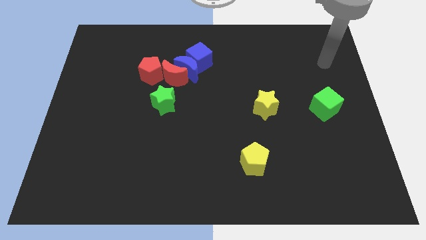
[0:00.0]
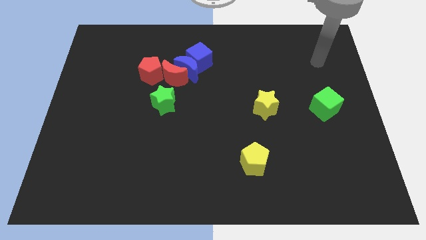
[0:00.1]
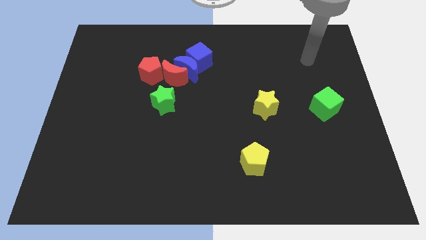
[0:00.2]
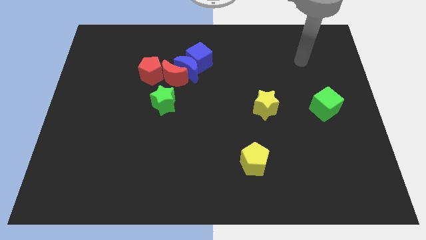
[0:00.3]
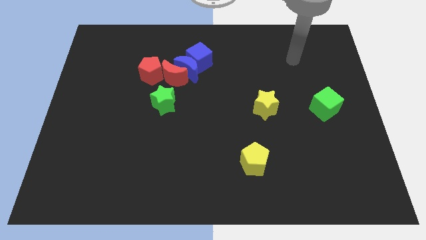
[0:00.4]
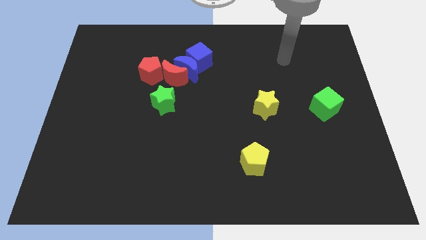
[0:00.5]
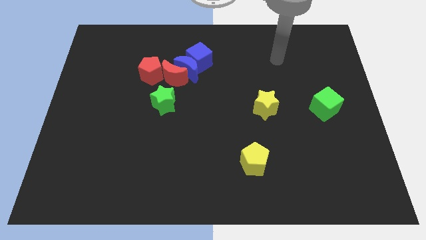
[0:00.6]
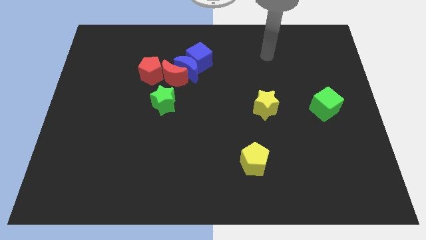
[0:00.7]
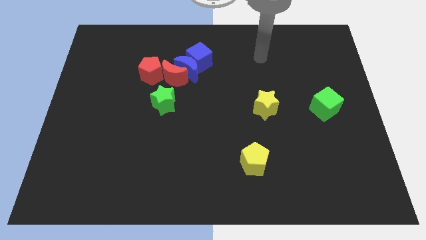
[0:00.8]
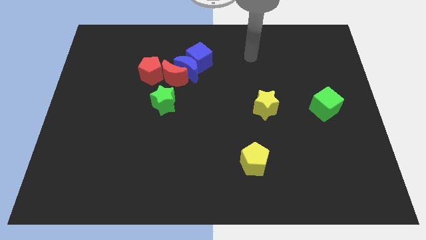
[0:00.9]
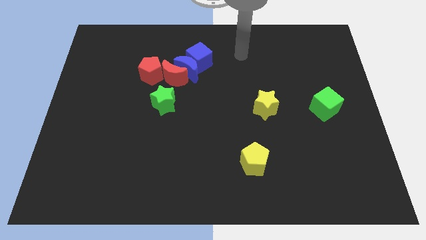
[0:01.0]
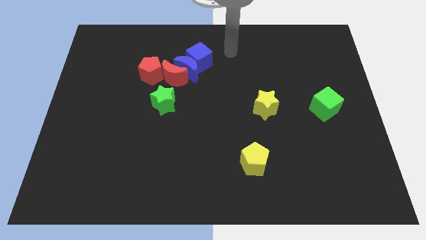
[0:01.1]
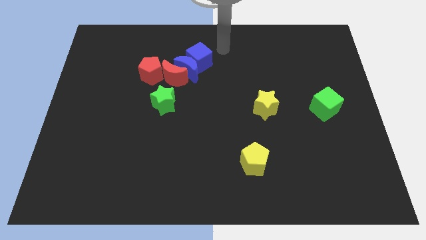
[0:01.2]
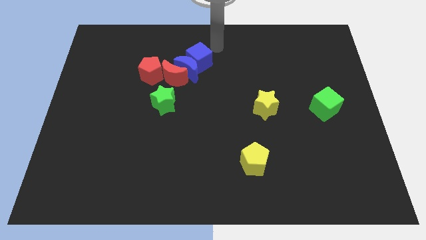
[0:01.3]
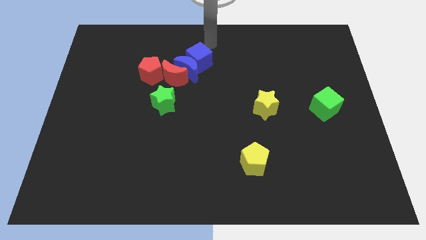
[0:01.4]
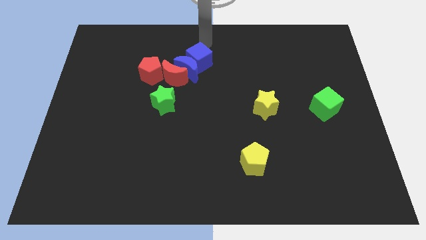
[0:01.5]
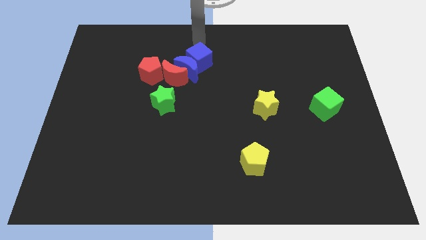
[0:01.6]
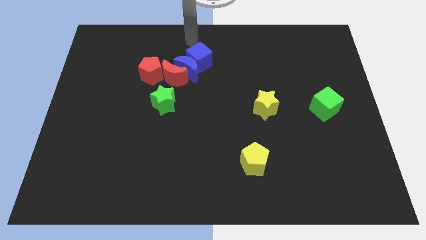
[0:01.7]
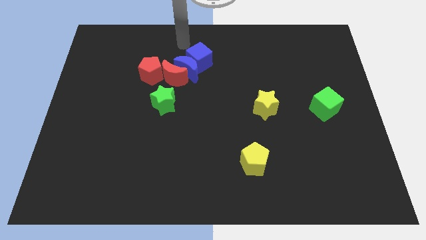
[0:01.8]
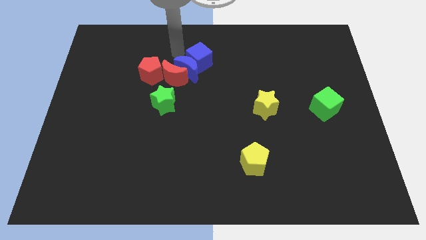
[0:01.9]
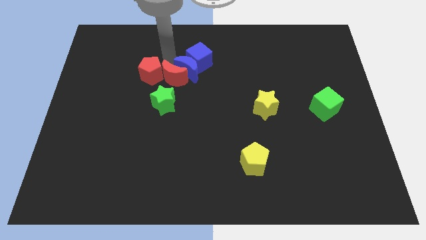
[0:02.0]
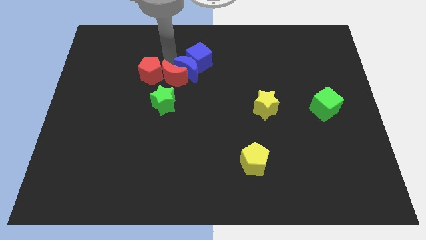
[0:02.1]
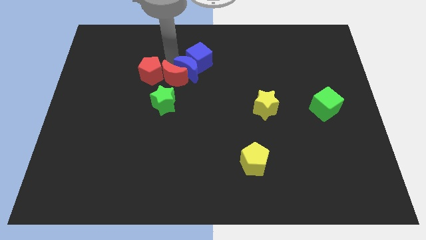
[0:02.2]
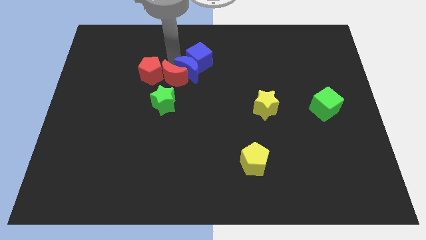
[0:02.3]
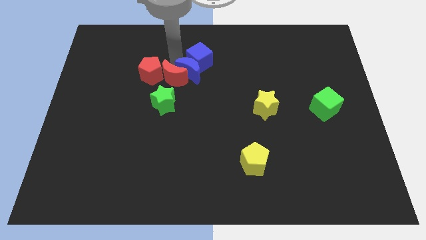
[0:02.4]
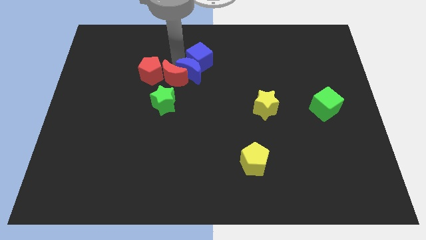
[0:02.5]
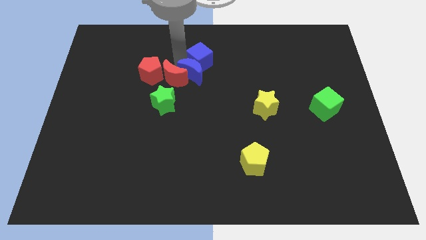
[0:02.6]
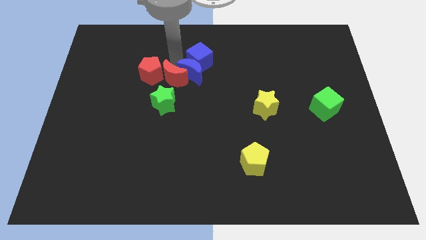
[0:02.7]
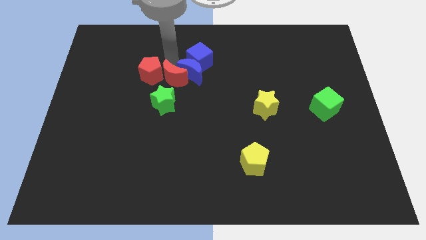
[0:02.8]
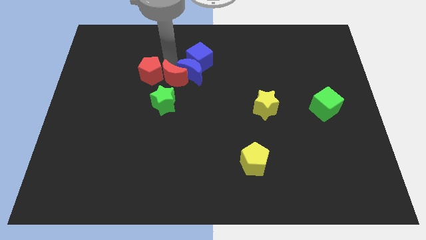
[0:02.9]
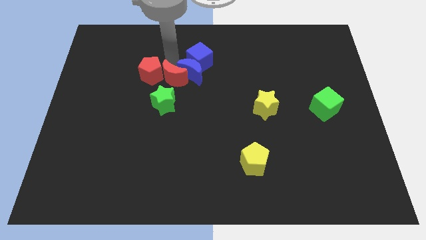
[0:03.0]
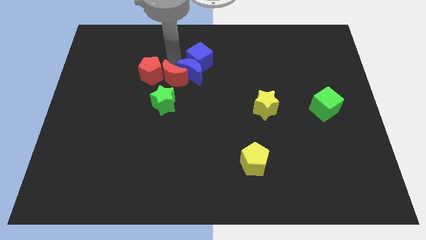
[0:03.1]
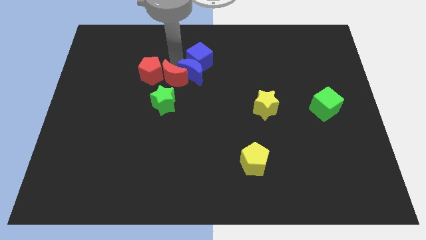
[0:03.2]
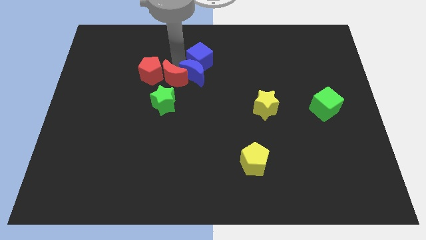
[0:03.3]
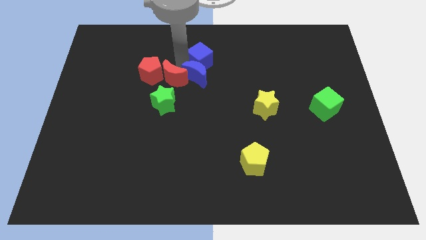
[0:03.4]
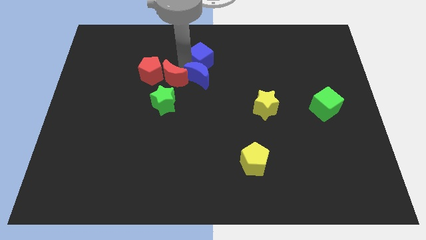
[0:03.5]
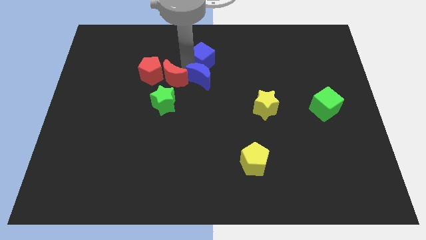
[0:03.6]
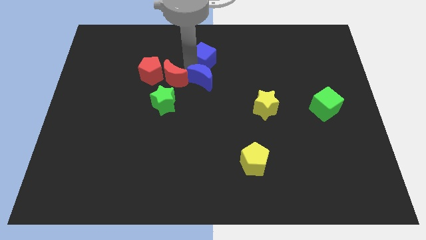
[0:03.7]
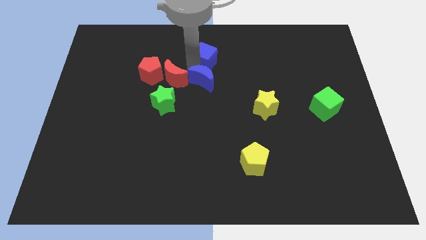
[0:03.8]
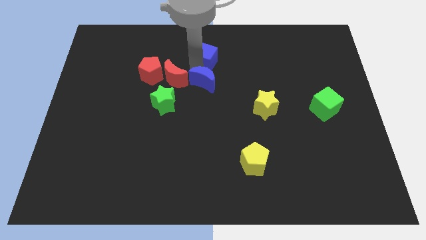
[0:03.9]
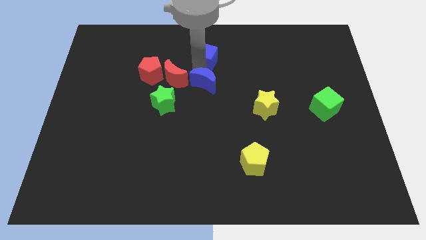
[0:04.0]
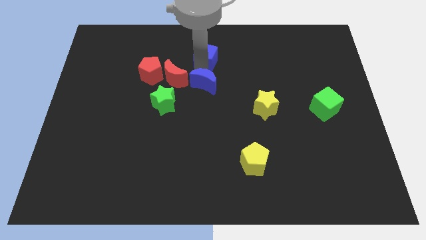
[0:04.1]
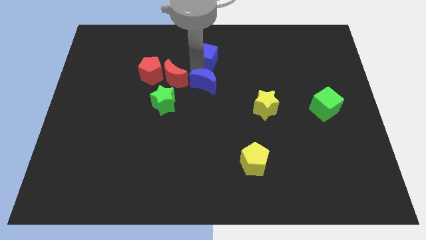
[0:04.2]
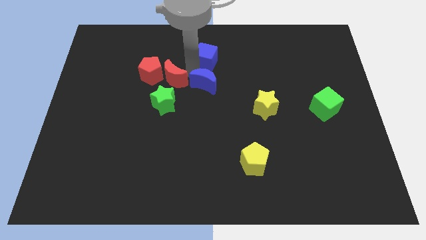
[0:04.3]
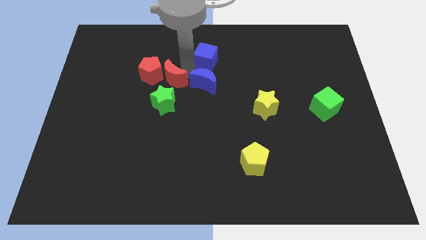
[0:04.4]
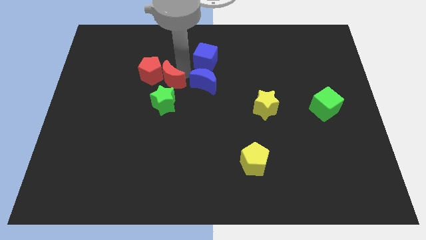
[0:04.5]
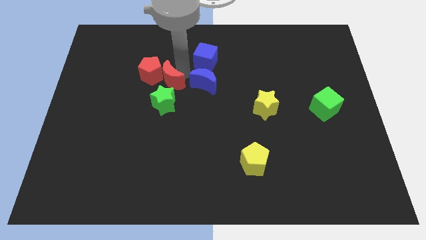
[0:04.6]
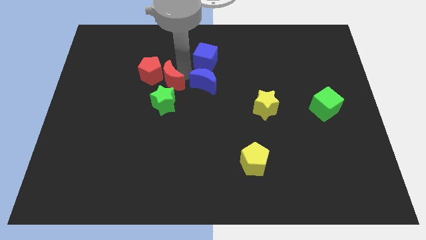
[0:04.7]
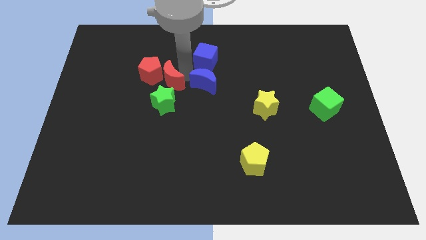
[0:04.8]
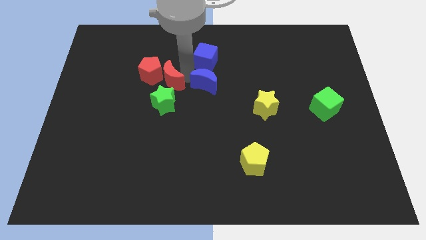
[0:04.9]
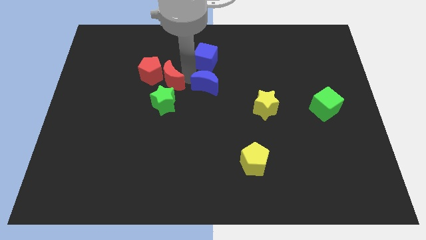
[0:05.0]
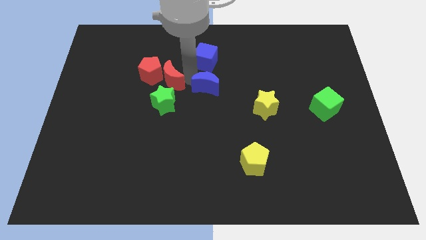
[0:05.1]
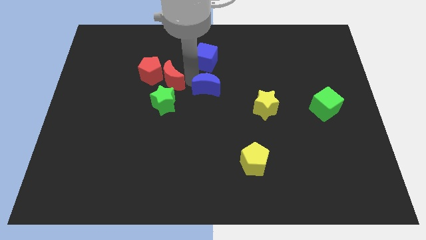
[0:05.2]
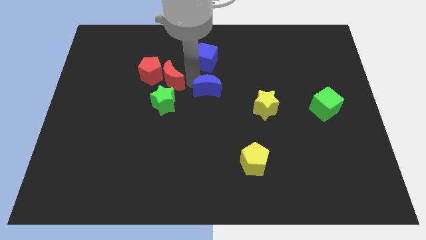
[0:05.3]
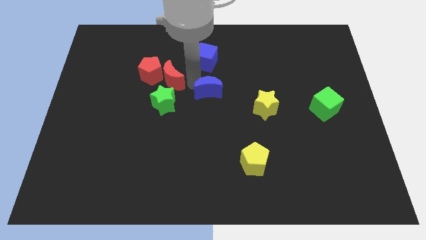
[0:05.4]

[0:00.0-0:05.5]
separate the blue moon from the red moon, blue cube, and red pentagon

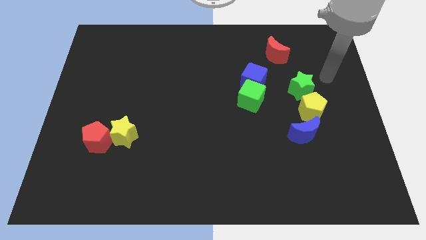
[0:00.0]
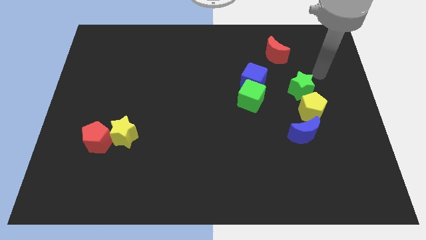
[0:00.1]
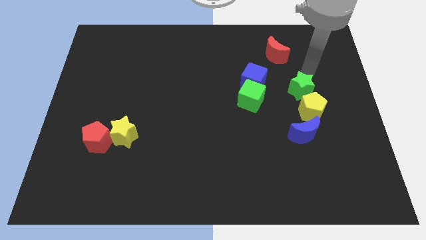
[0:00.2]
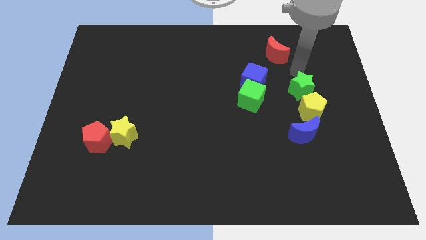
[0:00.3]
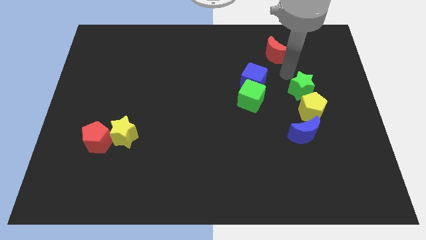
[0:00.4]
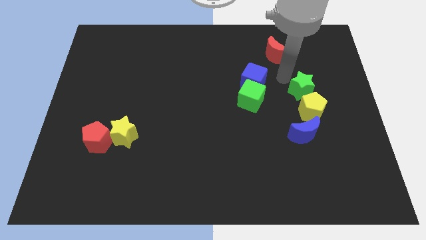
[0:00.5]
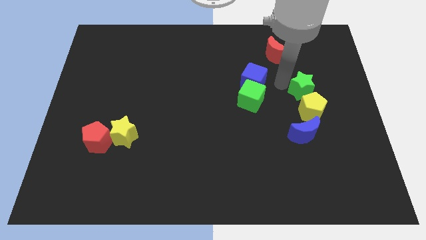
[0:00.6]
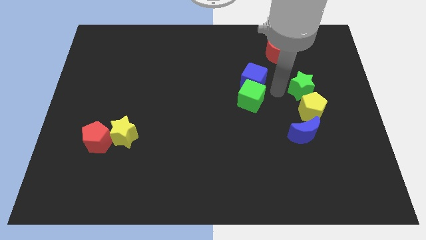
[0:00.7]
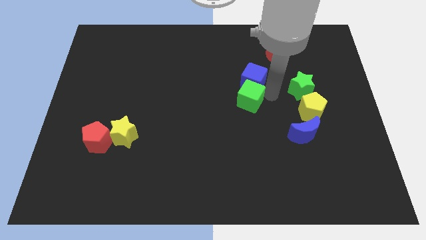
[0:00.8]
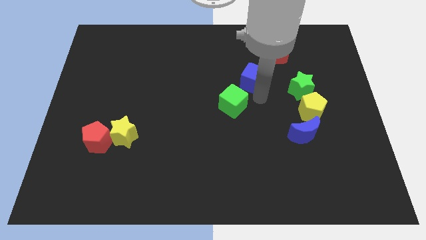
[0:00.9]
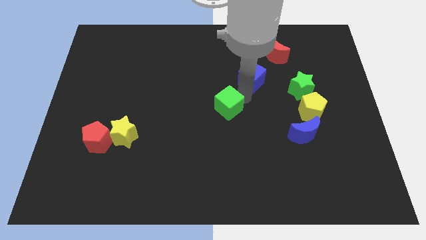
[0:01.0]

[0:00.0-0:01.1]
move the blue cube away from the green cube

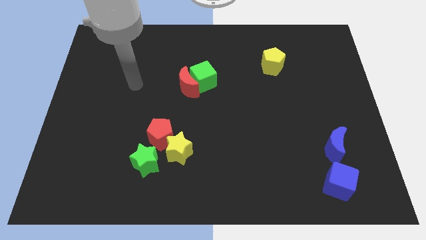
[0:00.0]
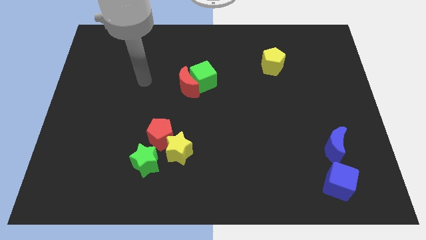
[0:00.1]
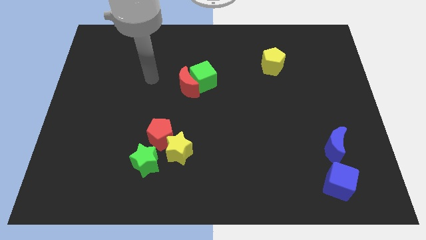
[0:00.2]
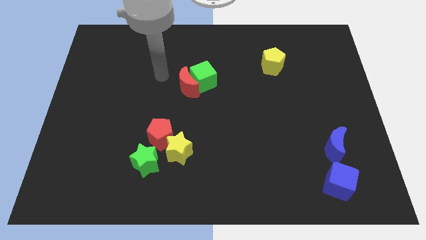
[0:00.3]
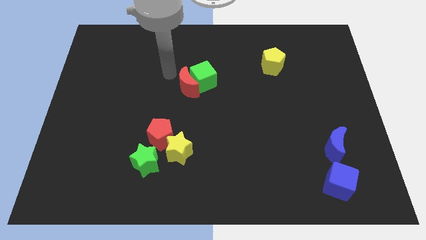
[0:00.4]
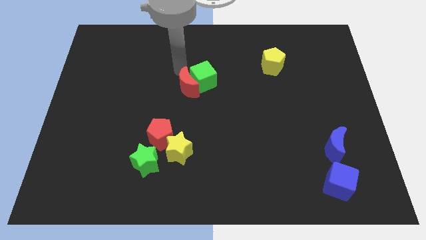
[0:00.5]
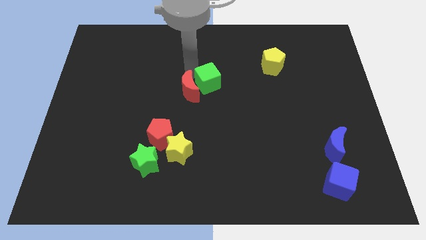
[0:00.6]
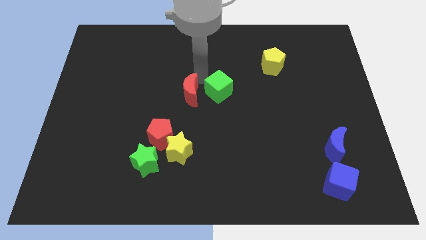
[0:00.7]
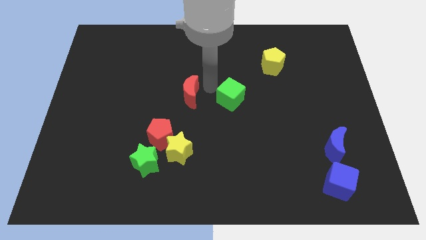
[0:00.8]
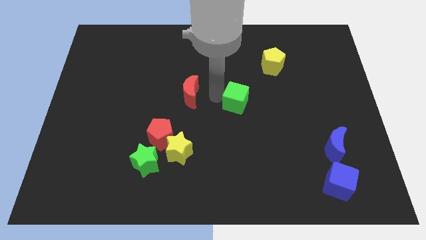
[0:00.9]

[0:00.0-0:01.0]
move the red moon away from the green cube

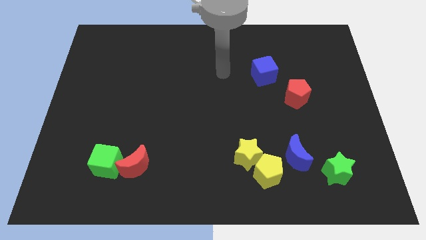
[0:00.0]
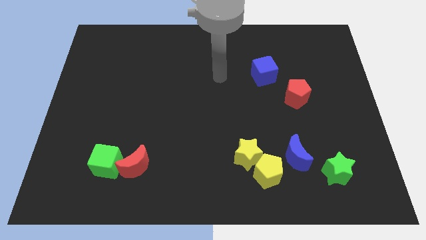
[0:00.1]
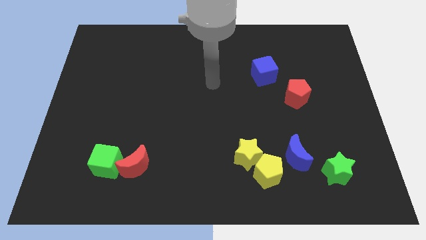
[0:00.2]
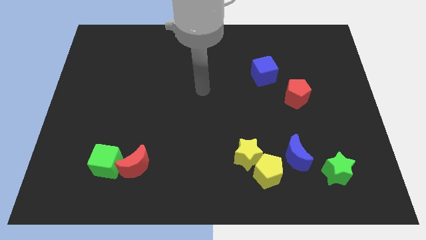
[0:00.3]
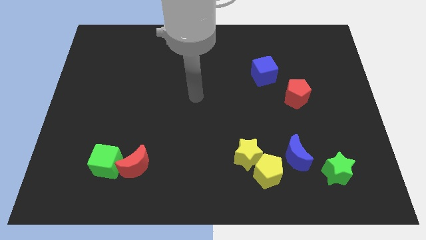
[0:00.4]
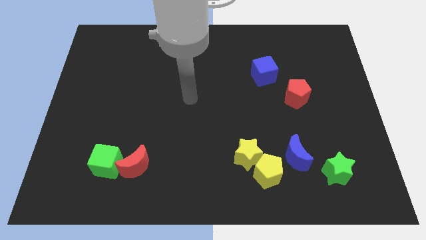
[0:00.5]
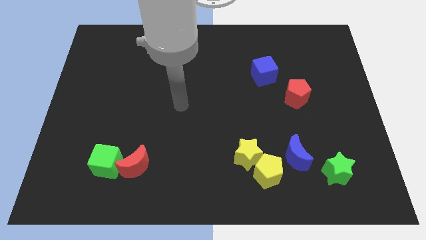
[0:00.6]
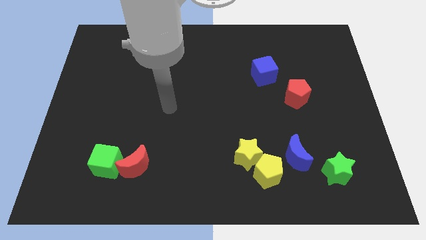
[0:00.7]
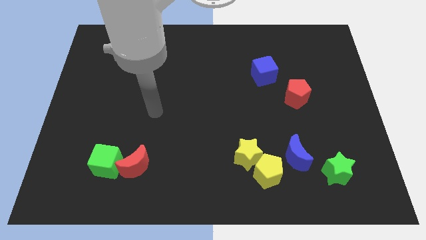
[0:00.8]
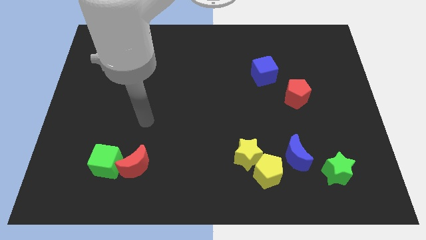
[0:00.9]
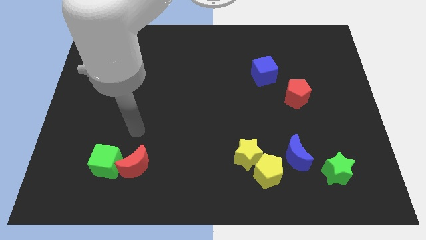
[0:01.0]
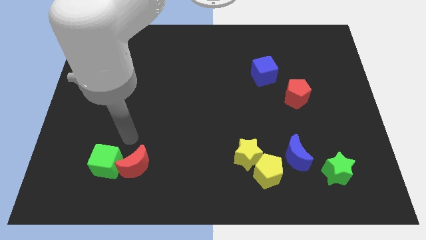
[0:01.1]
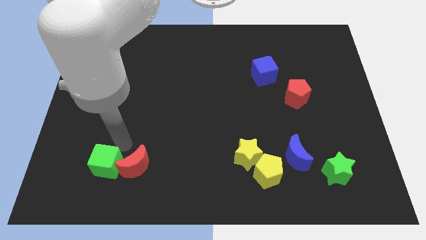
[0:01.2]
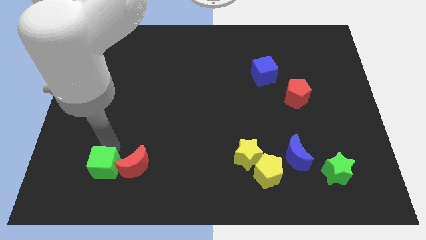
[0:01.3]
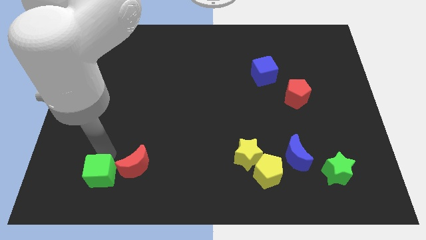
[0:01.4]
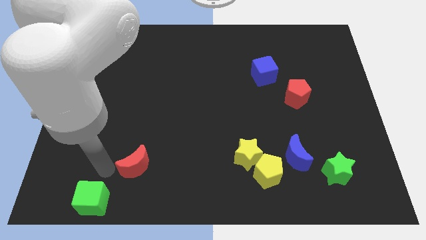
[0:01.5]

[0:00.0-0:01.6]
pull the red moon apart from the green cube
